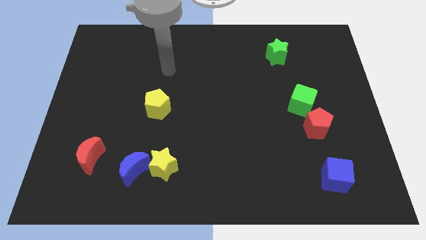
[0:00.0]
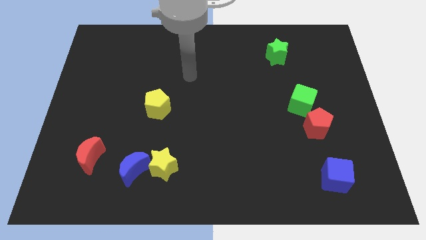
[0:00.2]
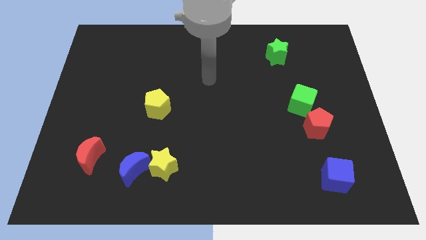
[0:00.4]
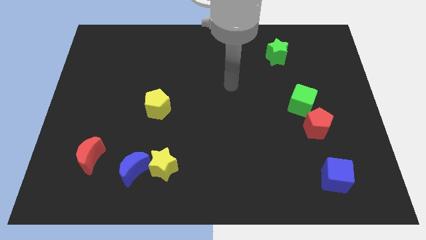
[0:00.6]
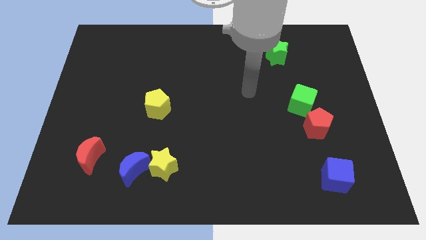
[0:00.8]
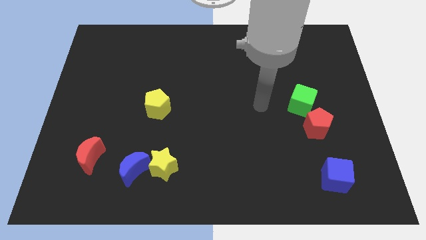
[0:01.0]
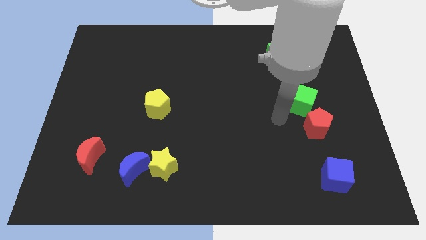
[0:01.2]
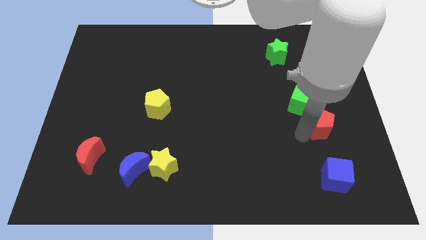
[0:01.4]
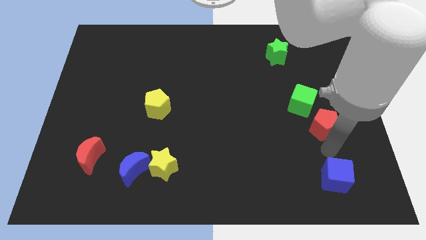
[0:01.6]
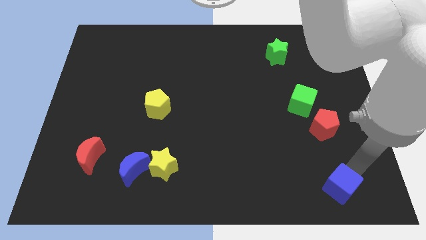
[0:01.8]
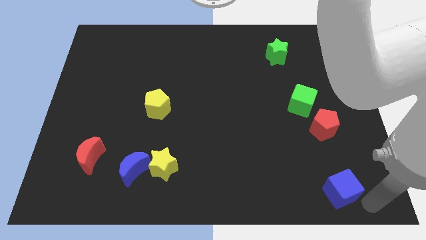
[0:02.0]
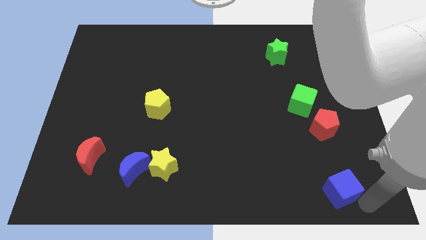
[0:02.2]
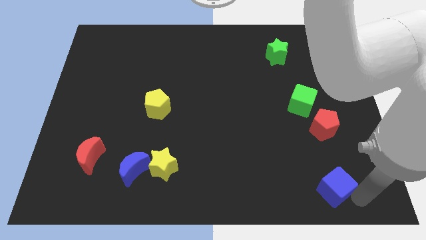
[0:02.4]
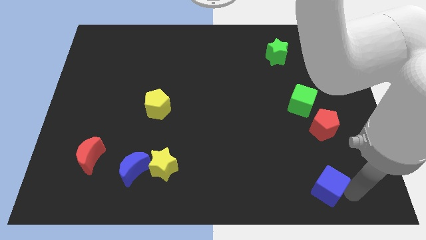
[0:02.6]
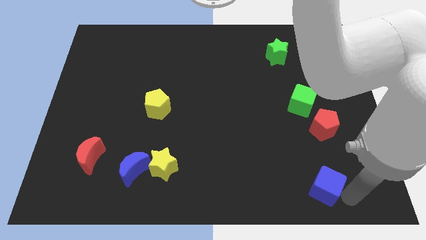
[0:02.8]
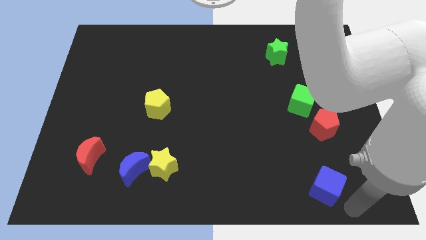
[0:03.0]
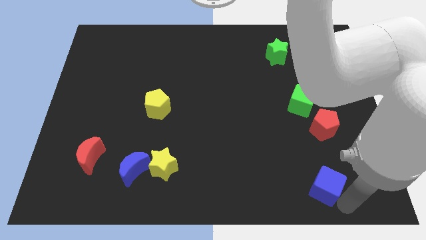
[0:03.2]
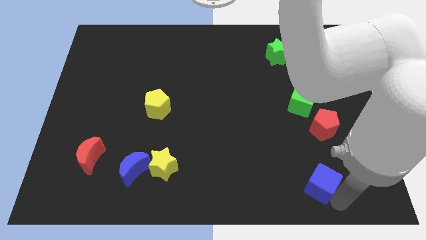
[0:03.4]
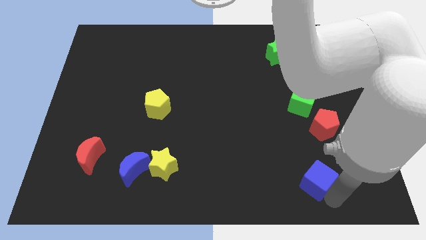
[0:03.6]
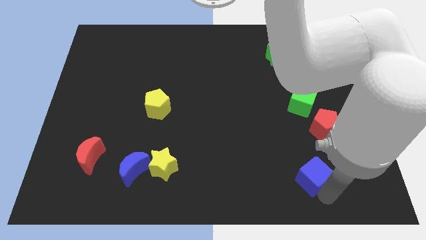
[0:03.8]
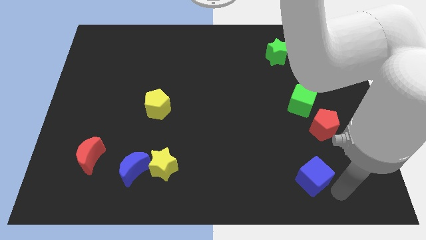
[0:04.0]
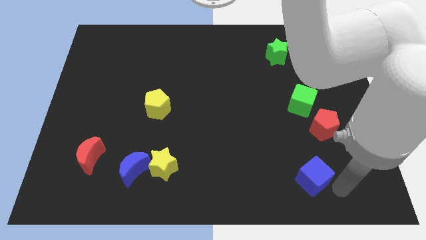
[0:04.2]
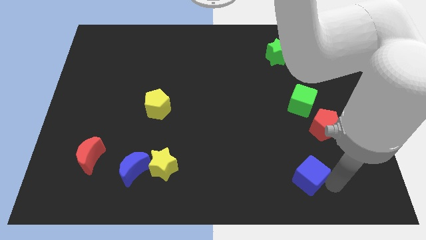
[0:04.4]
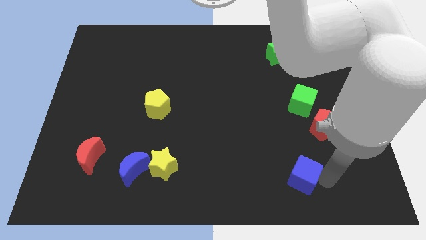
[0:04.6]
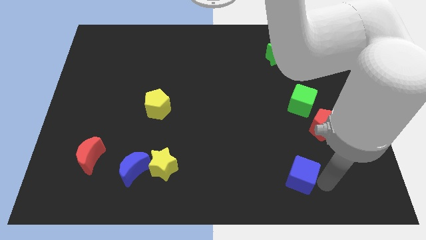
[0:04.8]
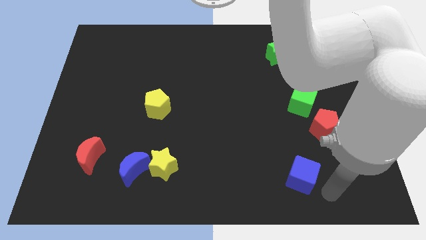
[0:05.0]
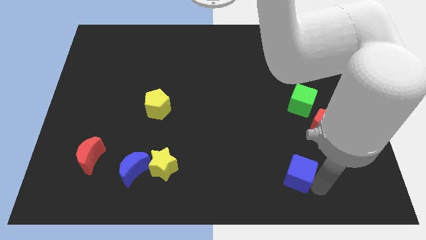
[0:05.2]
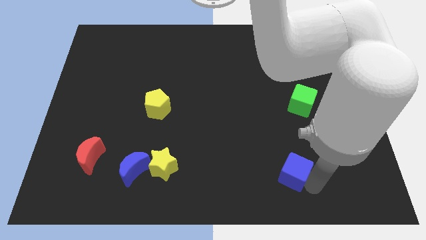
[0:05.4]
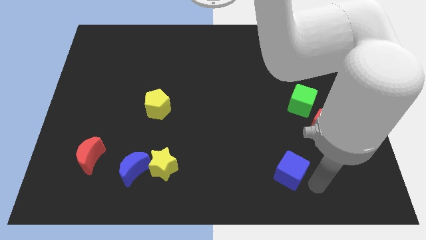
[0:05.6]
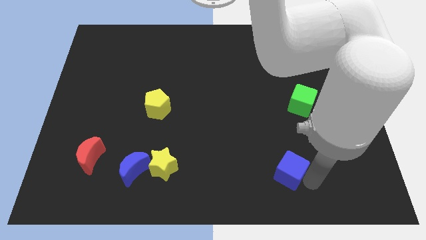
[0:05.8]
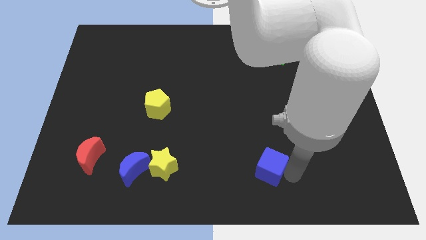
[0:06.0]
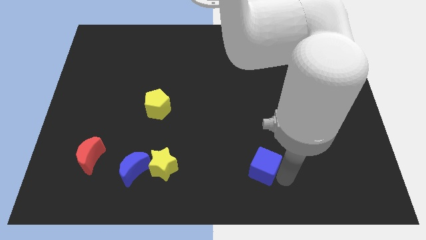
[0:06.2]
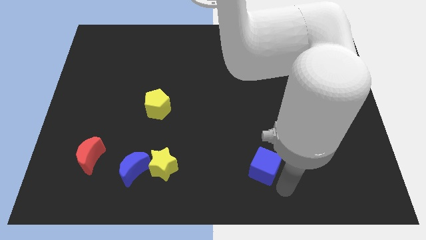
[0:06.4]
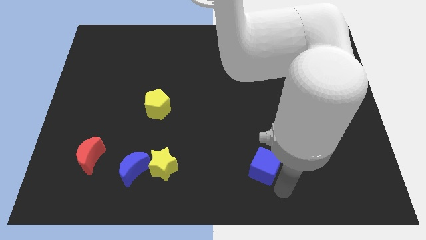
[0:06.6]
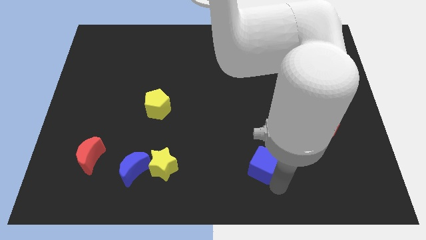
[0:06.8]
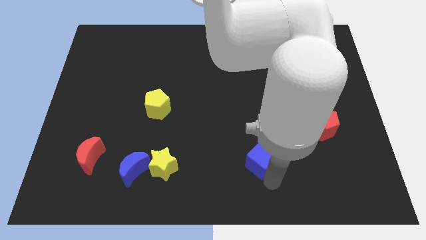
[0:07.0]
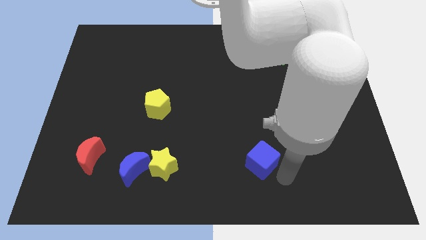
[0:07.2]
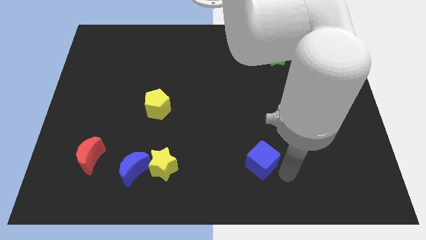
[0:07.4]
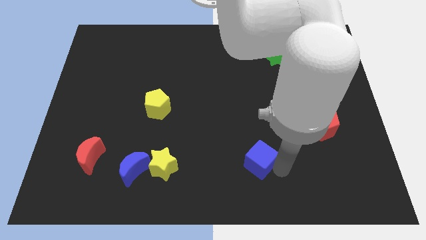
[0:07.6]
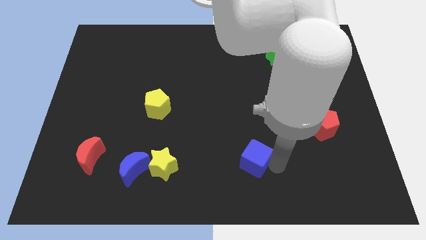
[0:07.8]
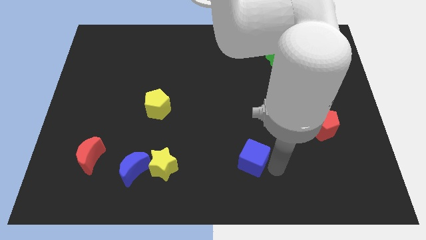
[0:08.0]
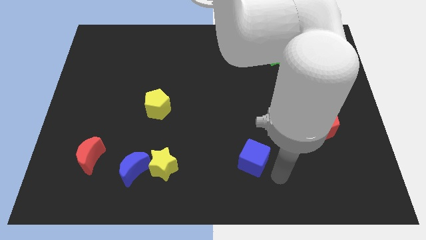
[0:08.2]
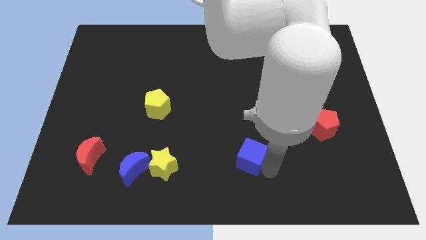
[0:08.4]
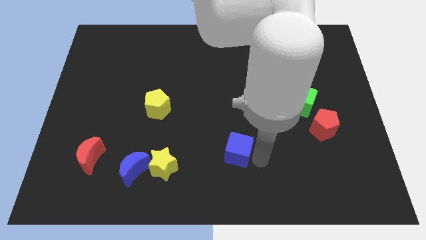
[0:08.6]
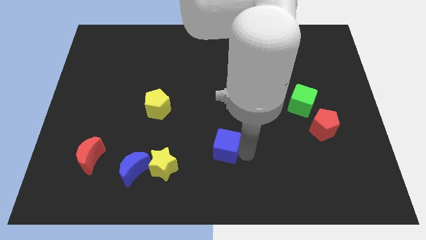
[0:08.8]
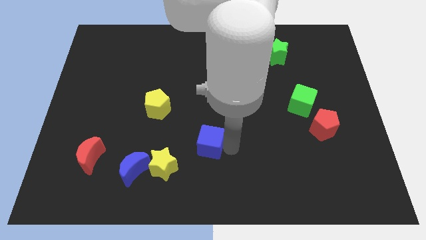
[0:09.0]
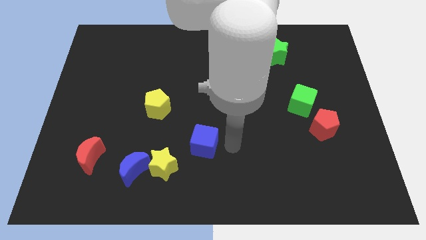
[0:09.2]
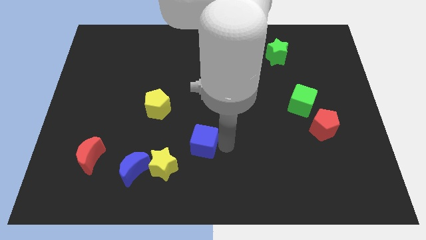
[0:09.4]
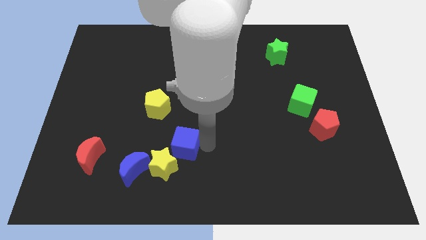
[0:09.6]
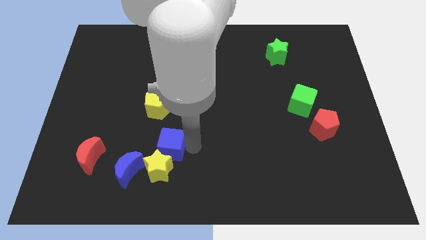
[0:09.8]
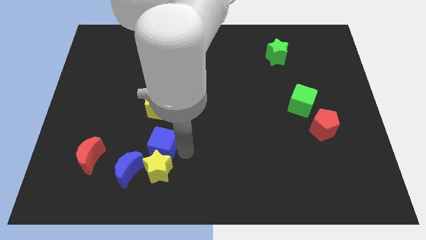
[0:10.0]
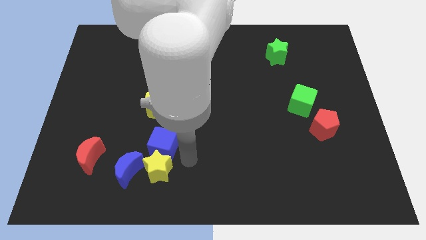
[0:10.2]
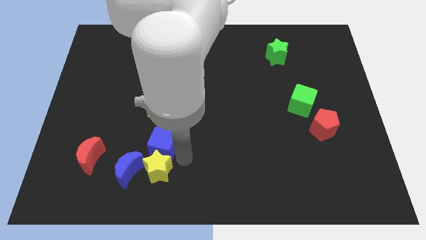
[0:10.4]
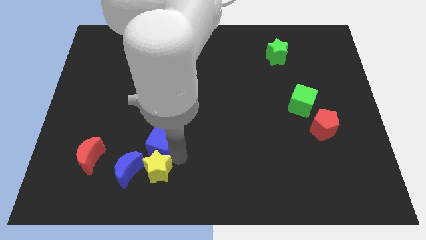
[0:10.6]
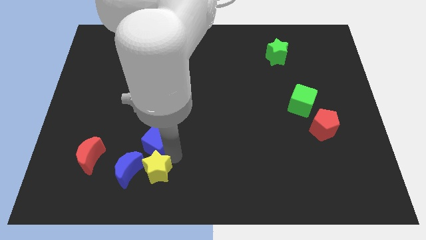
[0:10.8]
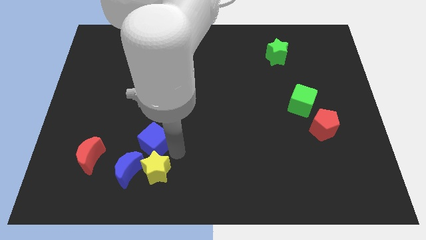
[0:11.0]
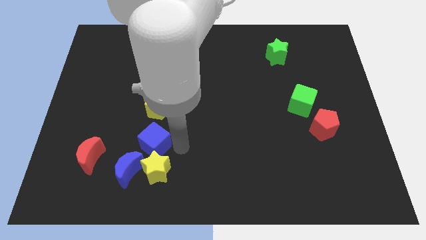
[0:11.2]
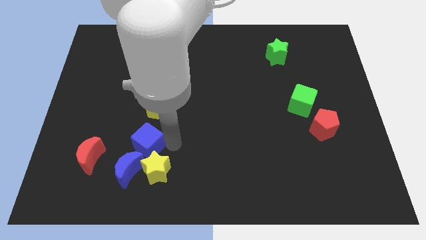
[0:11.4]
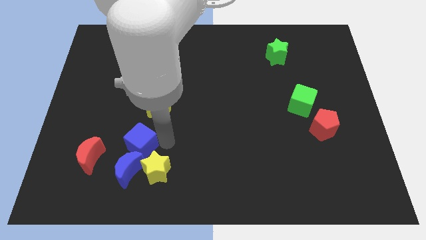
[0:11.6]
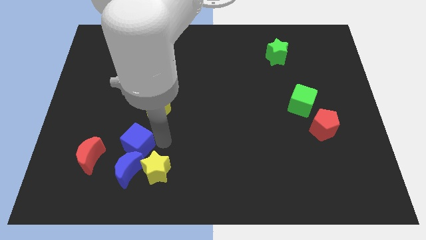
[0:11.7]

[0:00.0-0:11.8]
put the blue cube to the top right of the red moon

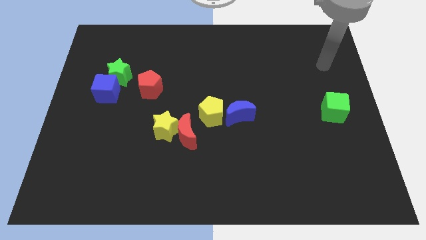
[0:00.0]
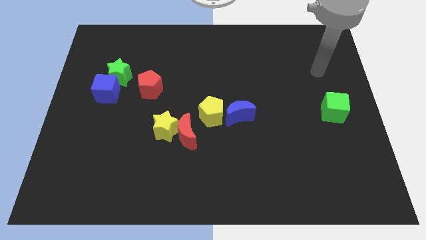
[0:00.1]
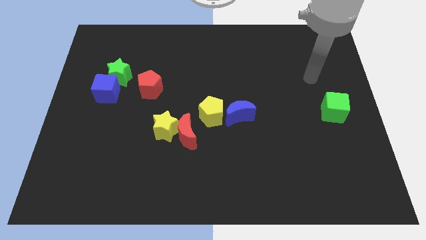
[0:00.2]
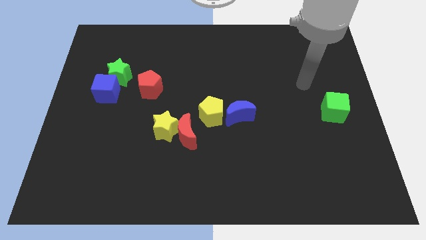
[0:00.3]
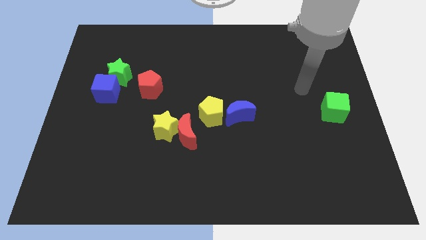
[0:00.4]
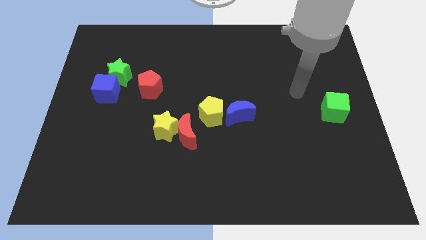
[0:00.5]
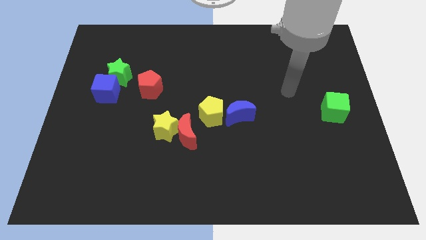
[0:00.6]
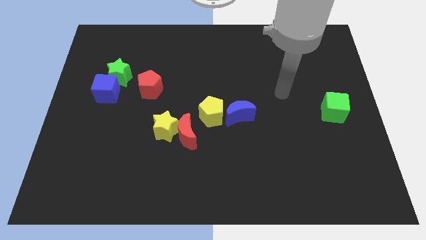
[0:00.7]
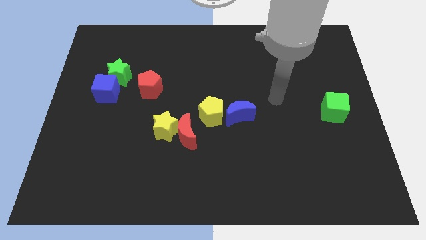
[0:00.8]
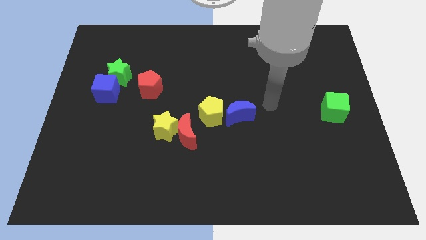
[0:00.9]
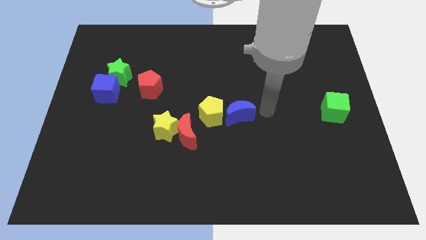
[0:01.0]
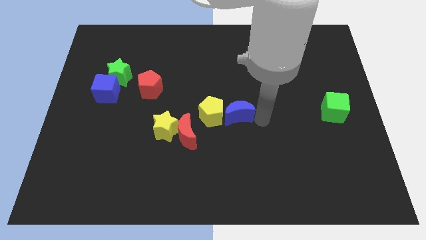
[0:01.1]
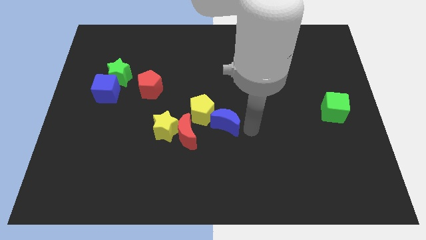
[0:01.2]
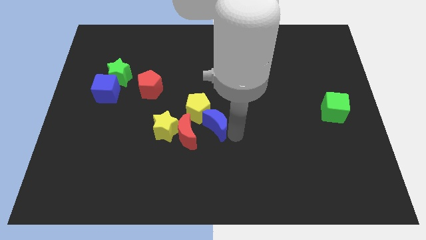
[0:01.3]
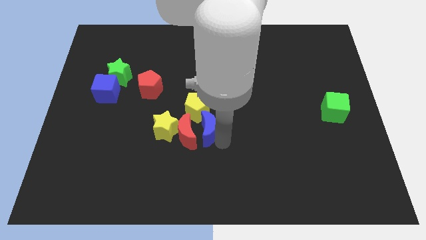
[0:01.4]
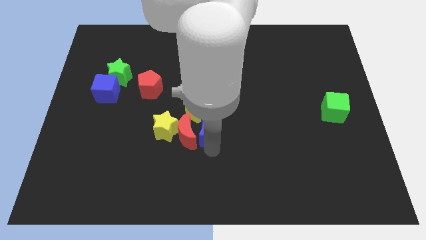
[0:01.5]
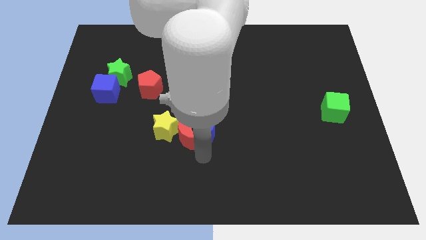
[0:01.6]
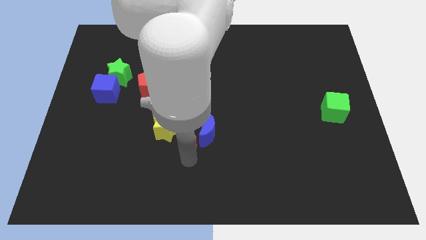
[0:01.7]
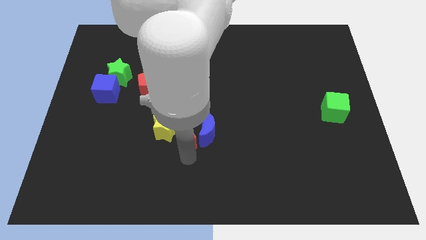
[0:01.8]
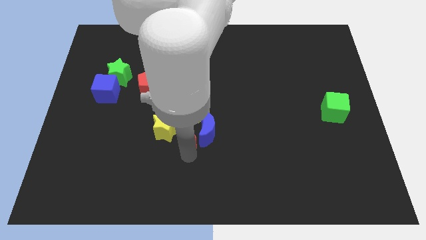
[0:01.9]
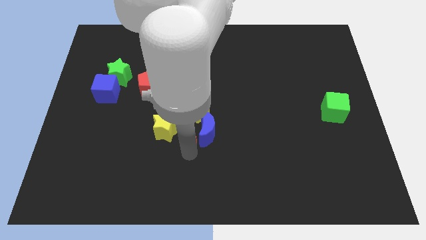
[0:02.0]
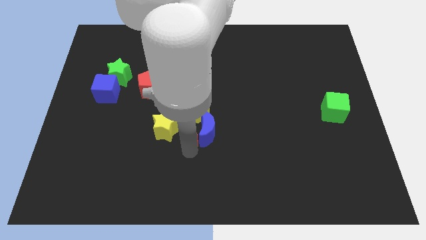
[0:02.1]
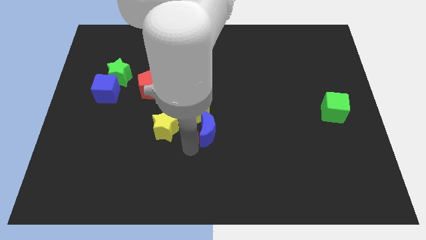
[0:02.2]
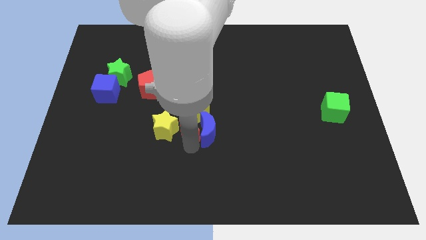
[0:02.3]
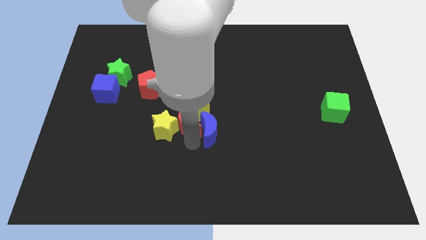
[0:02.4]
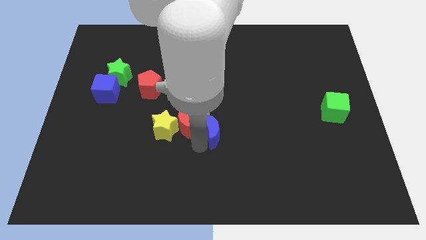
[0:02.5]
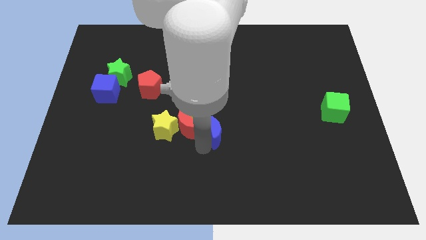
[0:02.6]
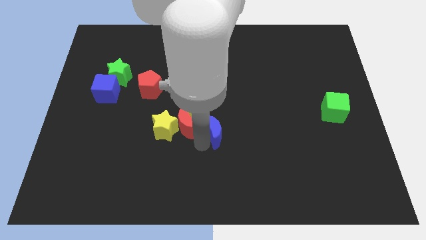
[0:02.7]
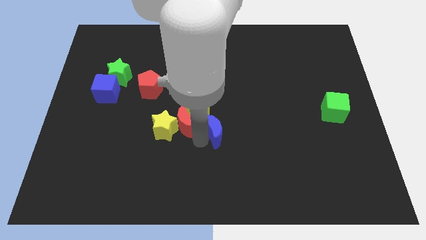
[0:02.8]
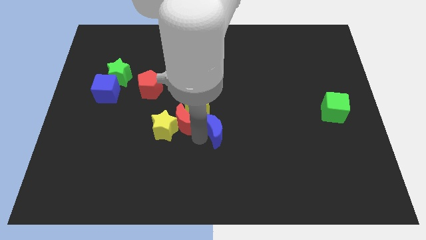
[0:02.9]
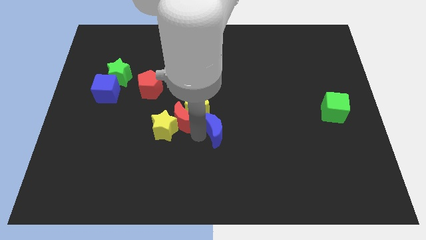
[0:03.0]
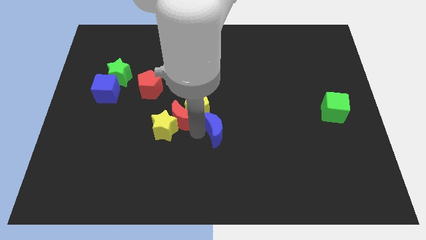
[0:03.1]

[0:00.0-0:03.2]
put the red moon to the bottom right of the red pentagon
